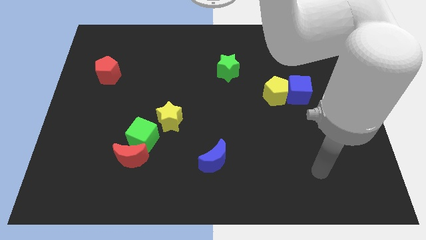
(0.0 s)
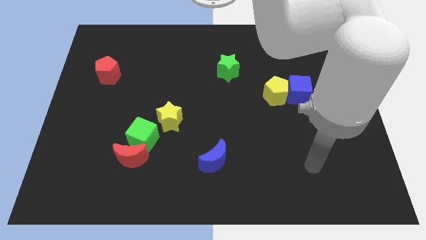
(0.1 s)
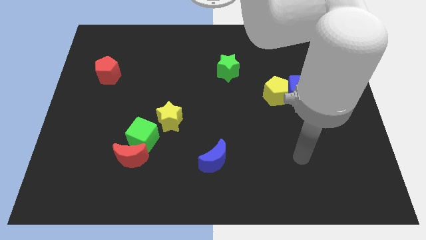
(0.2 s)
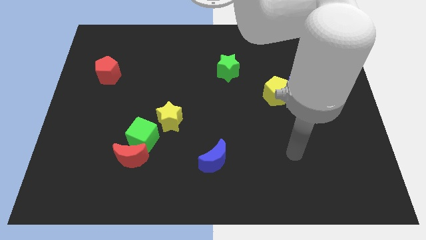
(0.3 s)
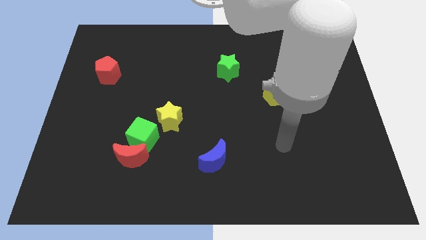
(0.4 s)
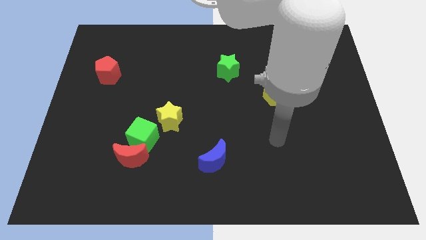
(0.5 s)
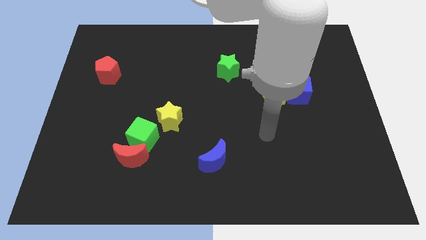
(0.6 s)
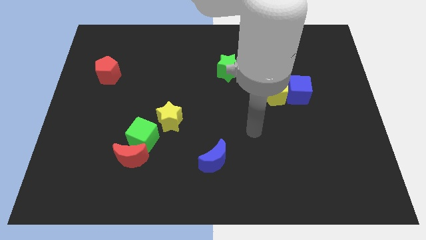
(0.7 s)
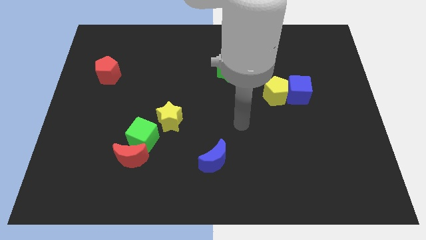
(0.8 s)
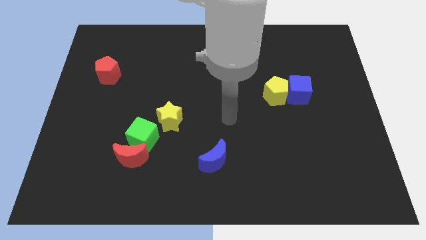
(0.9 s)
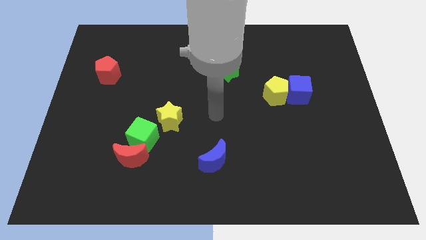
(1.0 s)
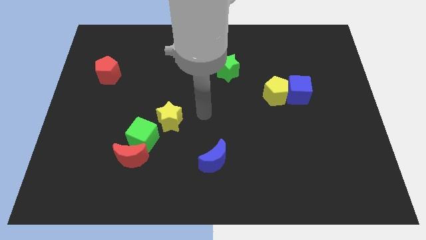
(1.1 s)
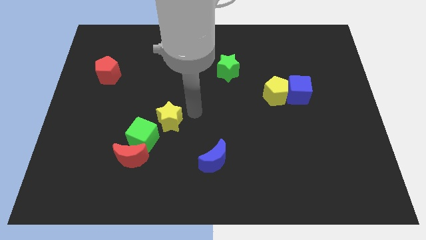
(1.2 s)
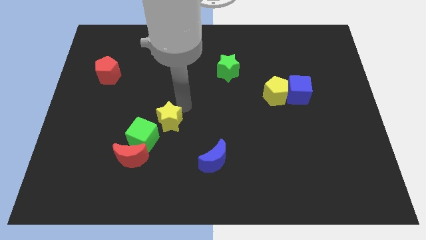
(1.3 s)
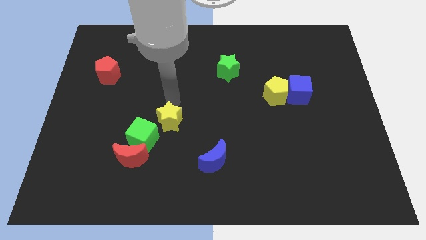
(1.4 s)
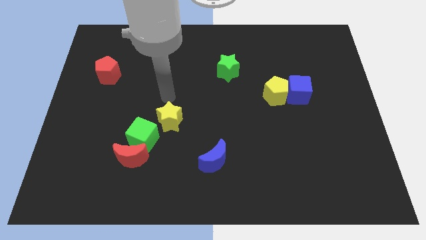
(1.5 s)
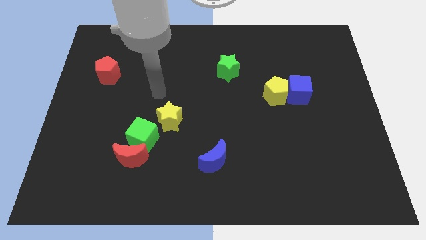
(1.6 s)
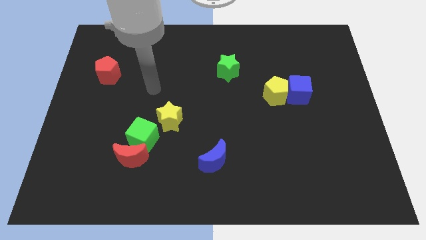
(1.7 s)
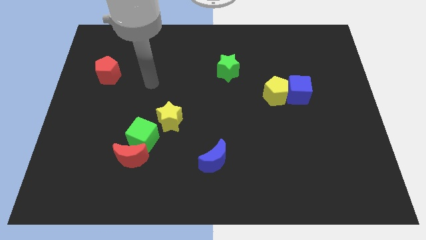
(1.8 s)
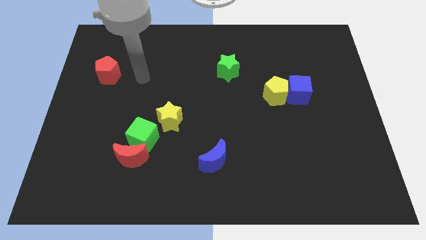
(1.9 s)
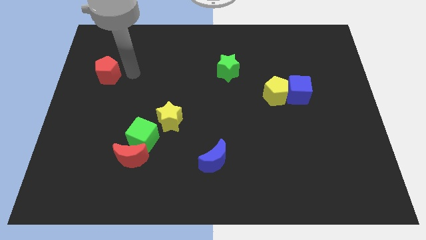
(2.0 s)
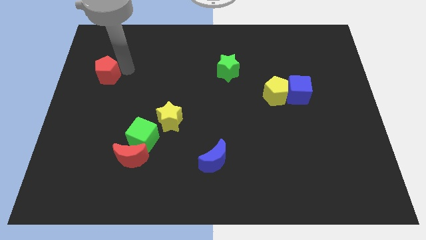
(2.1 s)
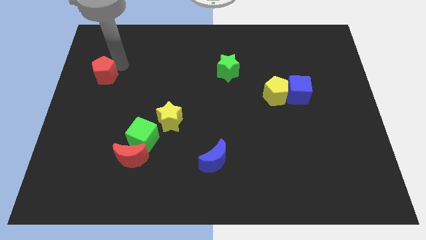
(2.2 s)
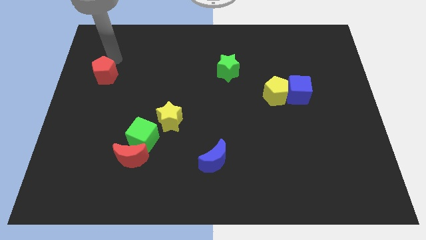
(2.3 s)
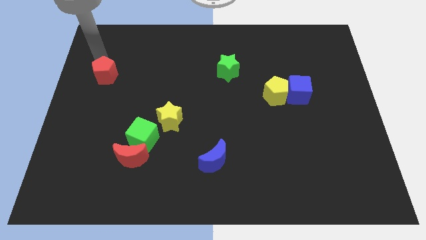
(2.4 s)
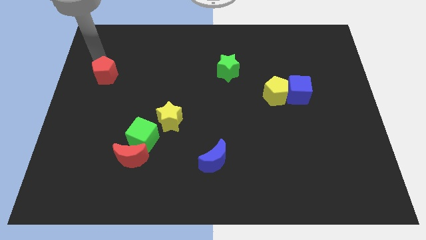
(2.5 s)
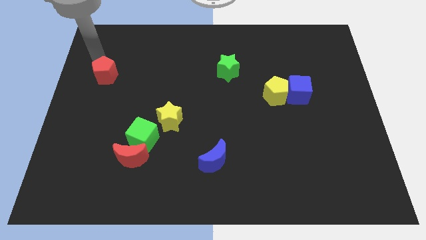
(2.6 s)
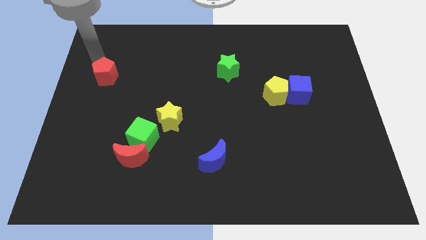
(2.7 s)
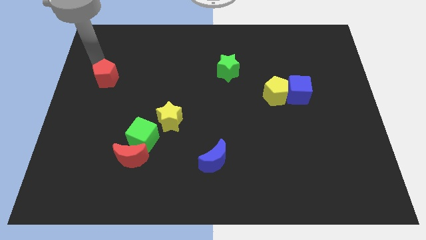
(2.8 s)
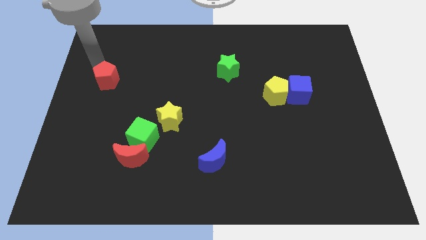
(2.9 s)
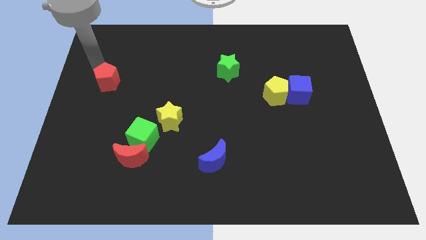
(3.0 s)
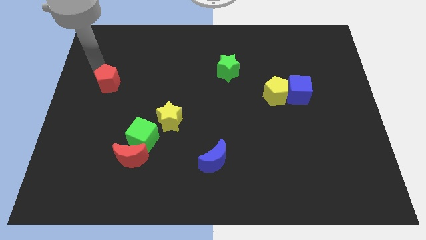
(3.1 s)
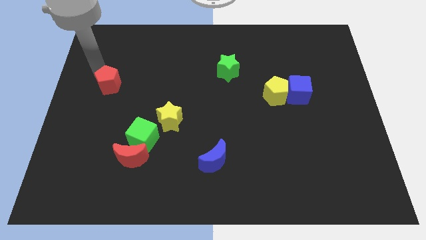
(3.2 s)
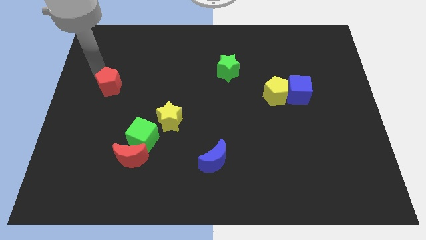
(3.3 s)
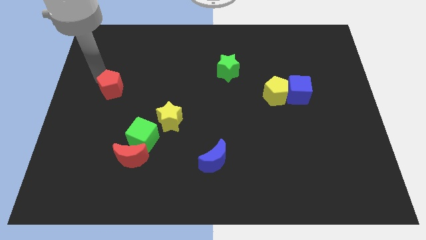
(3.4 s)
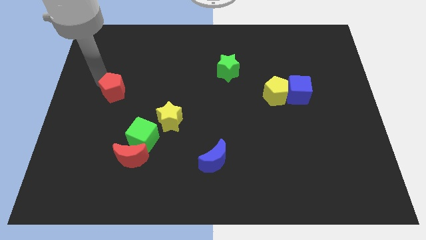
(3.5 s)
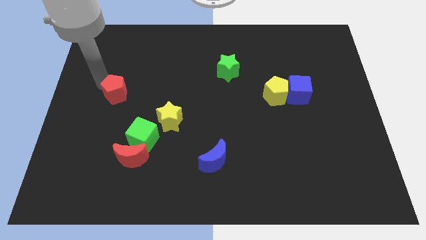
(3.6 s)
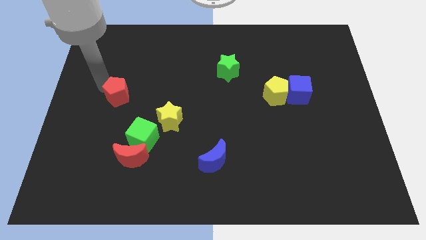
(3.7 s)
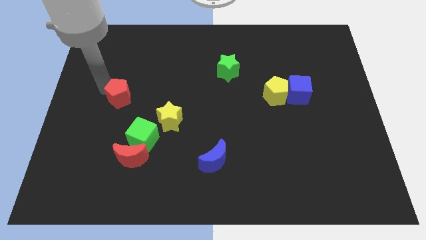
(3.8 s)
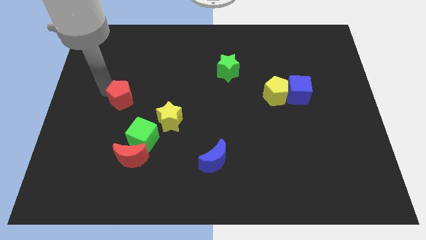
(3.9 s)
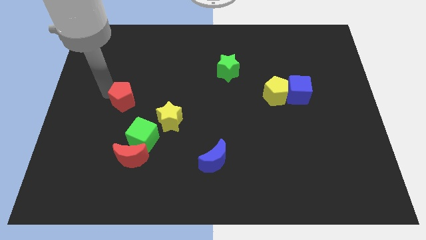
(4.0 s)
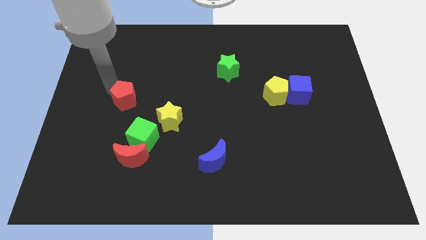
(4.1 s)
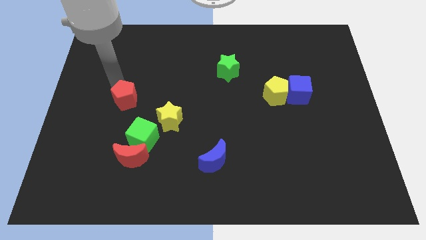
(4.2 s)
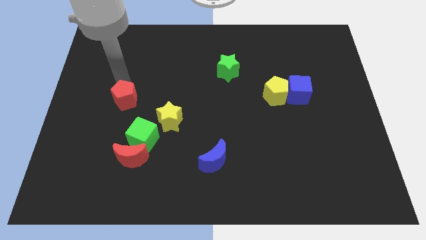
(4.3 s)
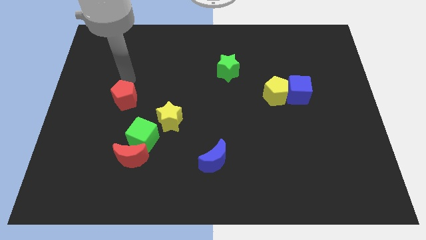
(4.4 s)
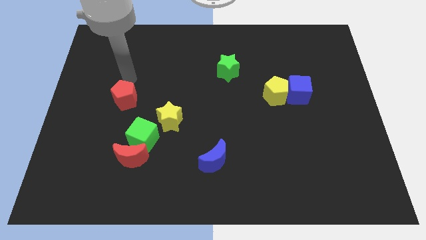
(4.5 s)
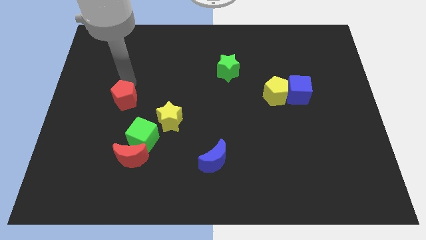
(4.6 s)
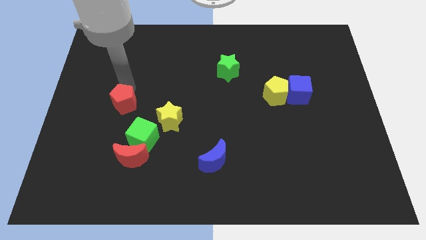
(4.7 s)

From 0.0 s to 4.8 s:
slide the red pentagon diagonally up and to the left of the green cube

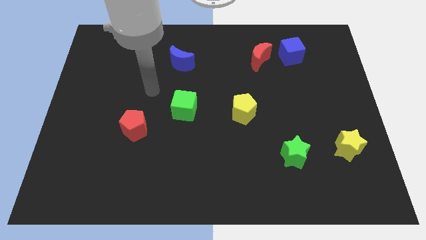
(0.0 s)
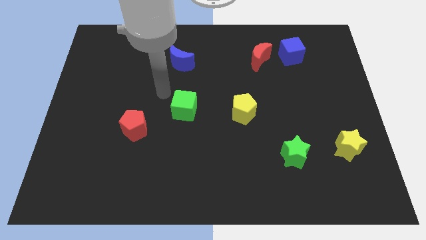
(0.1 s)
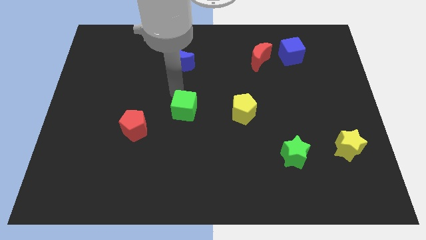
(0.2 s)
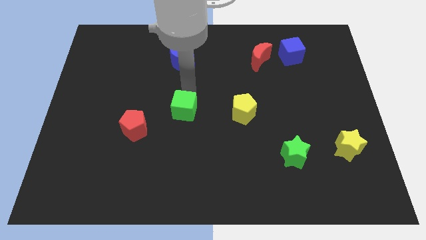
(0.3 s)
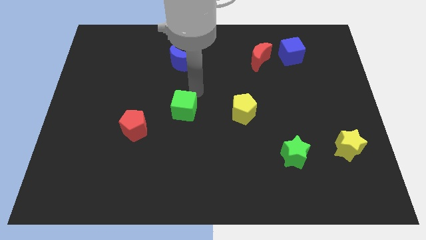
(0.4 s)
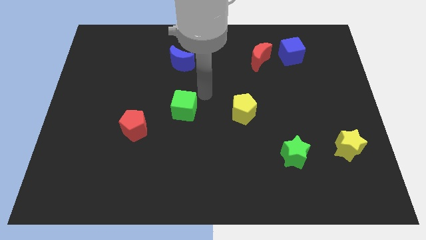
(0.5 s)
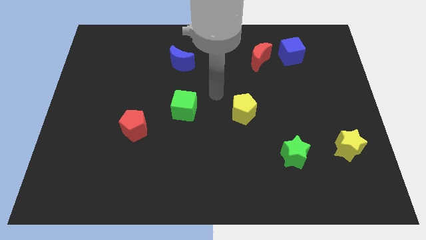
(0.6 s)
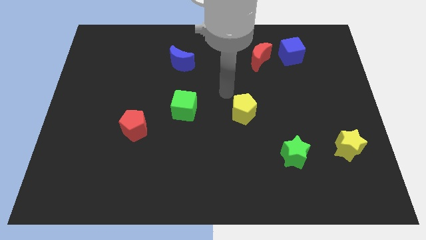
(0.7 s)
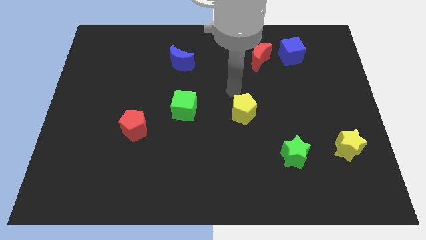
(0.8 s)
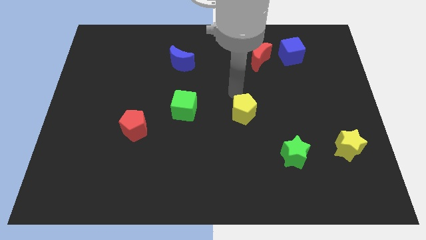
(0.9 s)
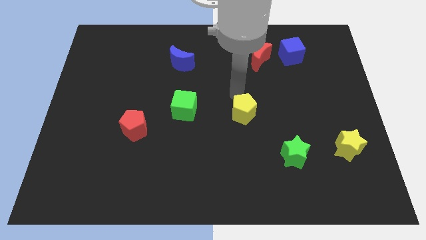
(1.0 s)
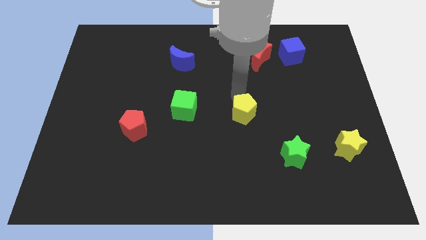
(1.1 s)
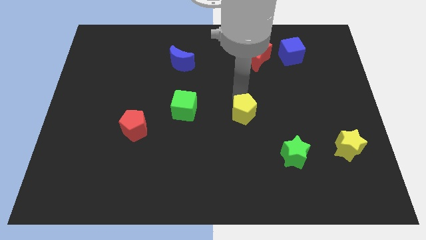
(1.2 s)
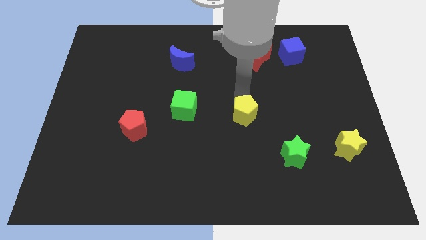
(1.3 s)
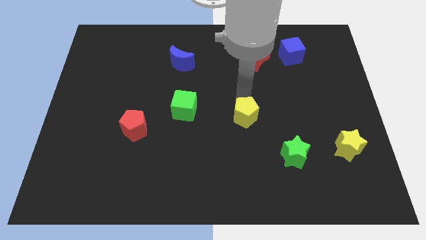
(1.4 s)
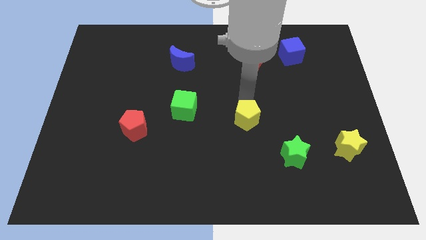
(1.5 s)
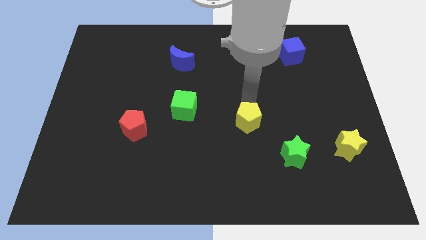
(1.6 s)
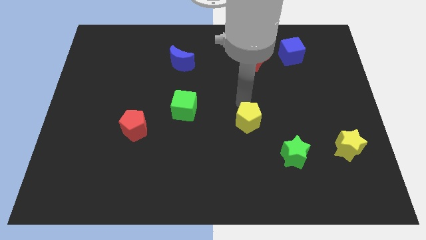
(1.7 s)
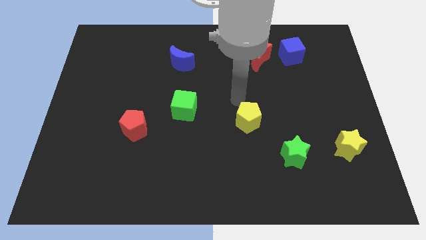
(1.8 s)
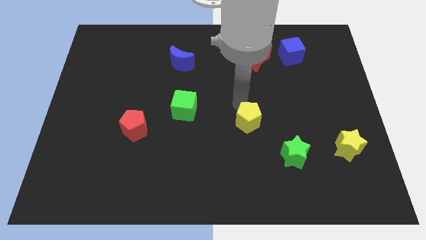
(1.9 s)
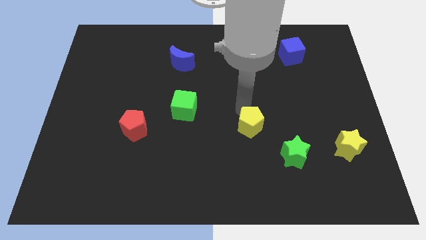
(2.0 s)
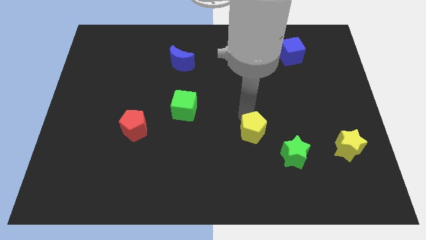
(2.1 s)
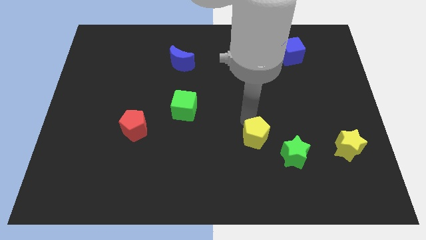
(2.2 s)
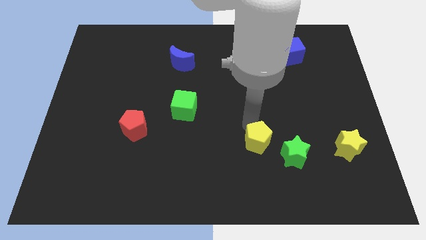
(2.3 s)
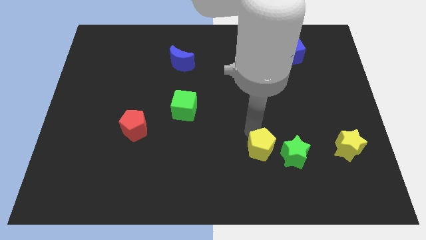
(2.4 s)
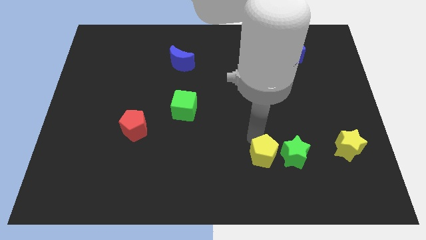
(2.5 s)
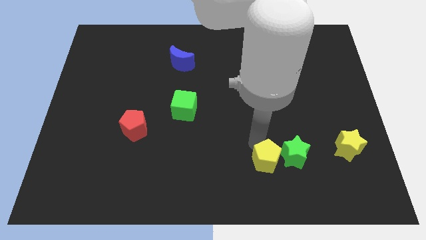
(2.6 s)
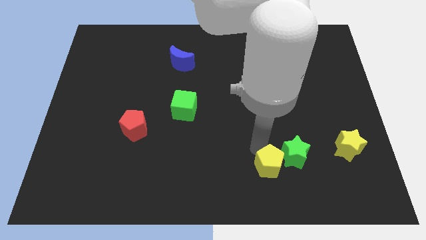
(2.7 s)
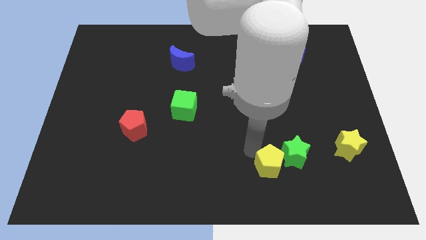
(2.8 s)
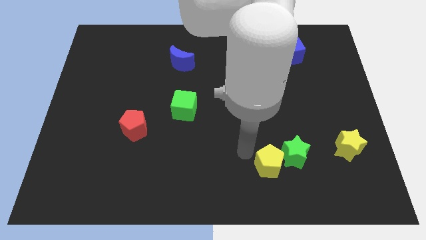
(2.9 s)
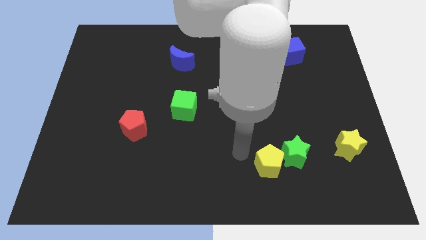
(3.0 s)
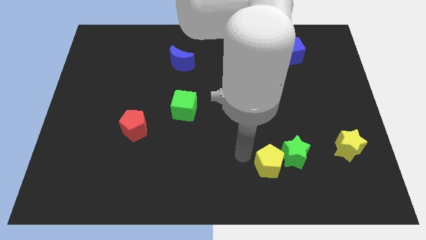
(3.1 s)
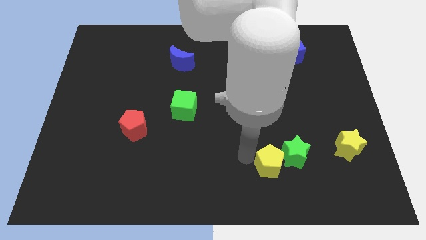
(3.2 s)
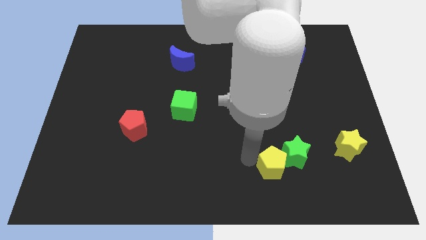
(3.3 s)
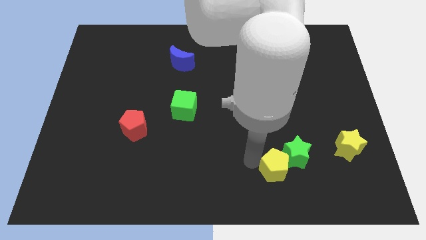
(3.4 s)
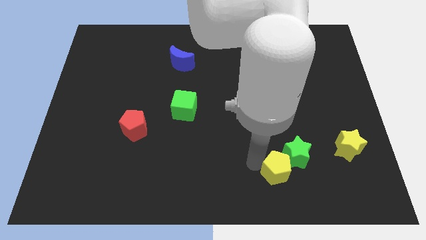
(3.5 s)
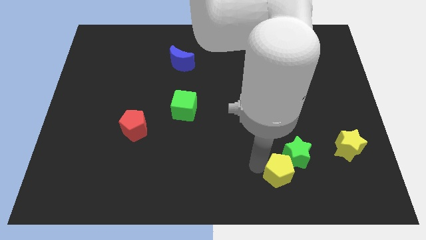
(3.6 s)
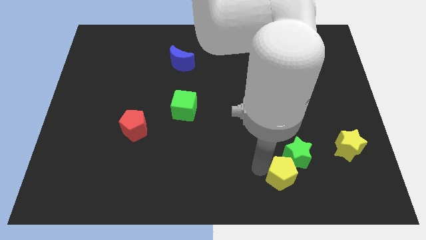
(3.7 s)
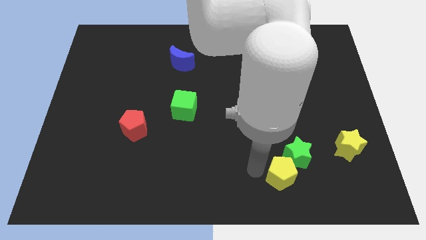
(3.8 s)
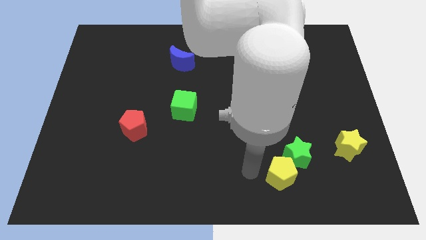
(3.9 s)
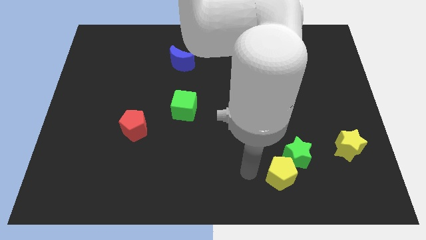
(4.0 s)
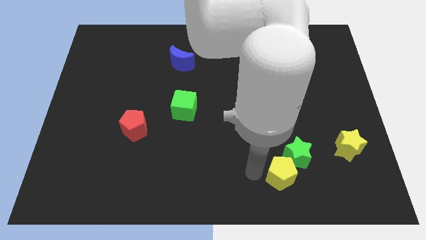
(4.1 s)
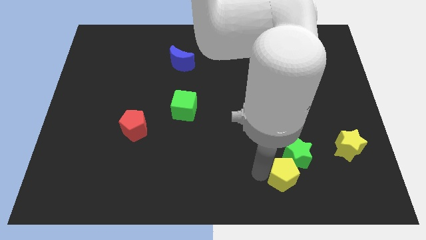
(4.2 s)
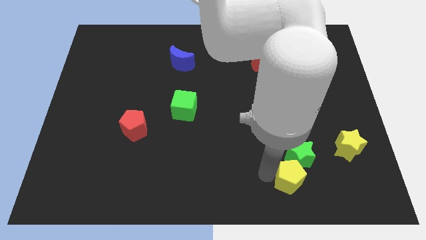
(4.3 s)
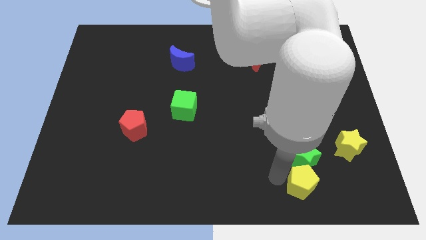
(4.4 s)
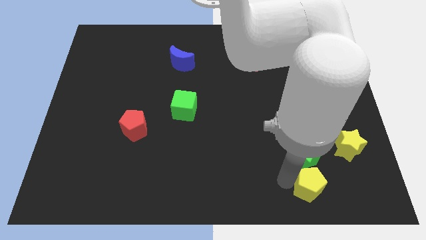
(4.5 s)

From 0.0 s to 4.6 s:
put the yellow pentagon to the bottom right side of the green star
